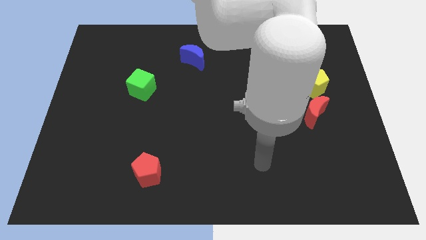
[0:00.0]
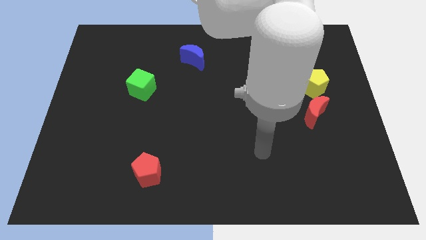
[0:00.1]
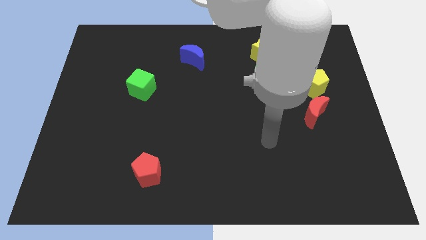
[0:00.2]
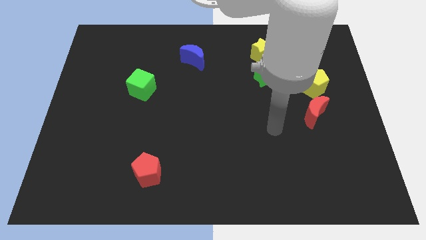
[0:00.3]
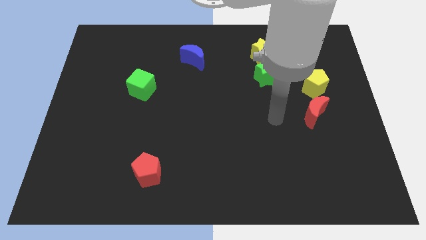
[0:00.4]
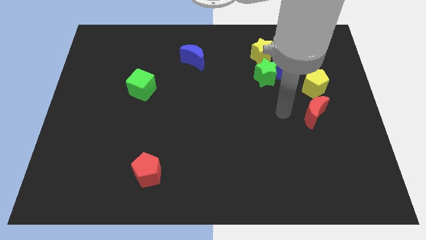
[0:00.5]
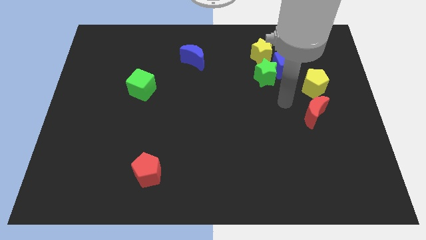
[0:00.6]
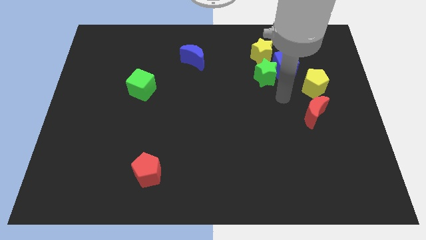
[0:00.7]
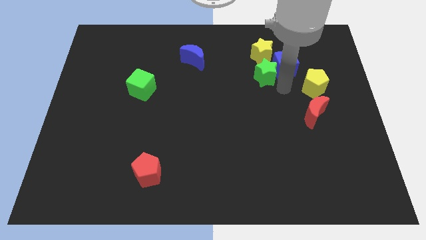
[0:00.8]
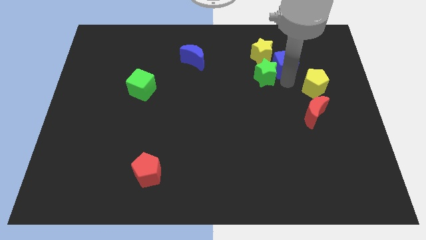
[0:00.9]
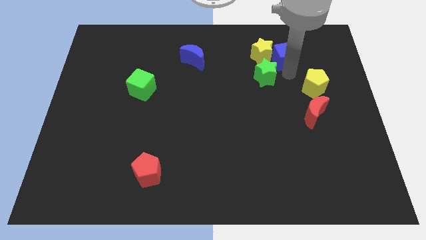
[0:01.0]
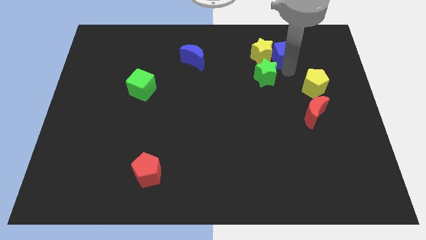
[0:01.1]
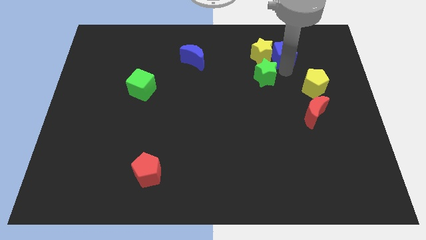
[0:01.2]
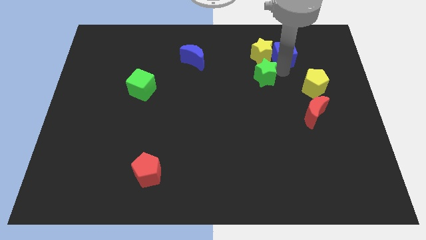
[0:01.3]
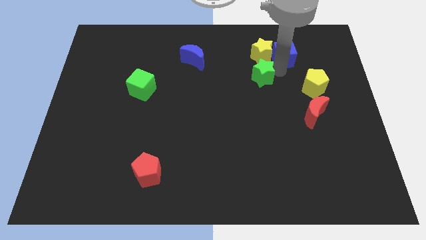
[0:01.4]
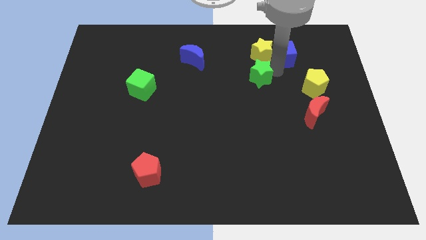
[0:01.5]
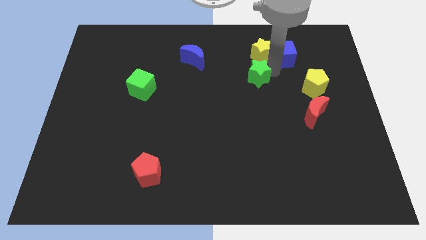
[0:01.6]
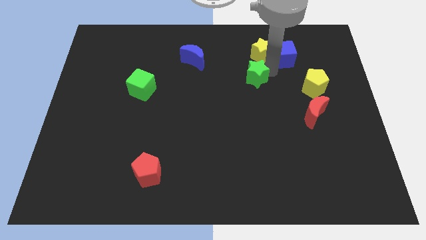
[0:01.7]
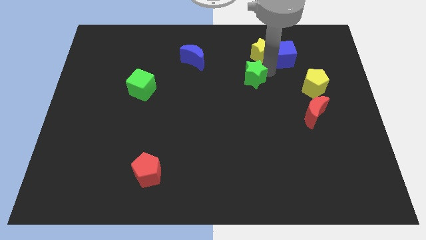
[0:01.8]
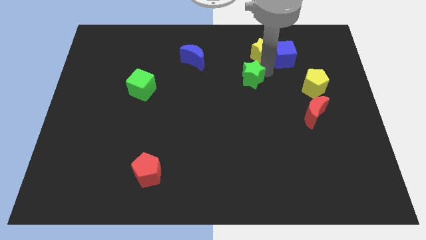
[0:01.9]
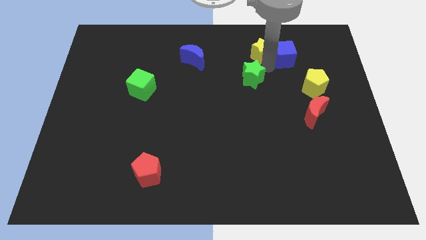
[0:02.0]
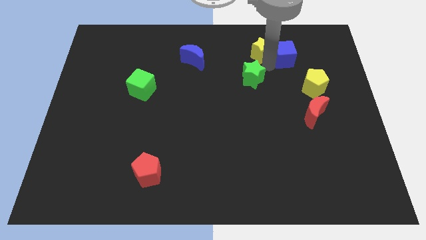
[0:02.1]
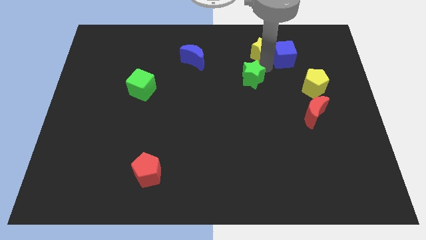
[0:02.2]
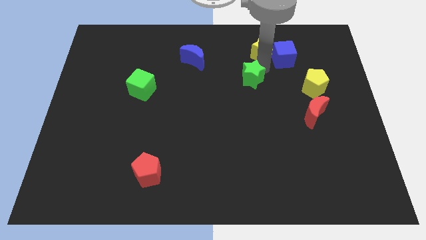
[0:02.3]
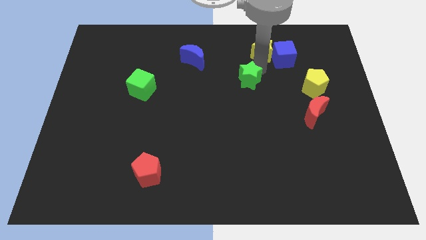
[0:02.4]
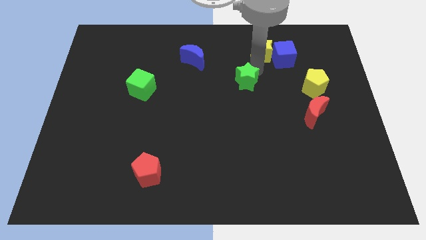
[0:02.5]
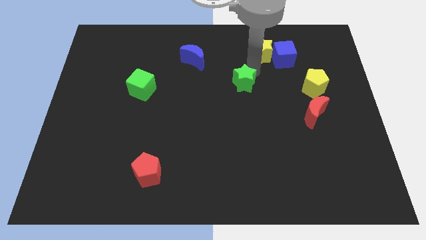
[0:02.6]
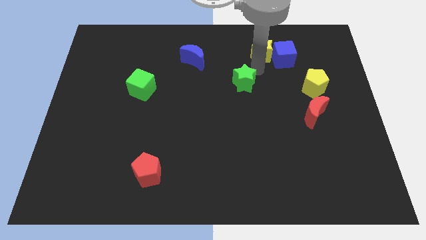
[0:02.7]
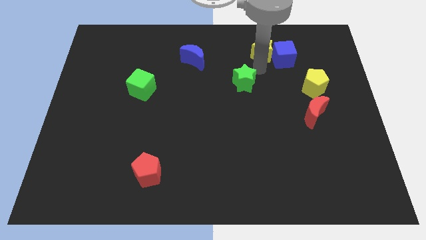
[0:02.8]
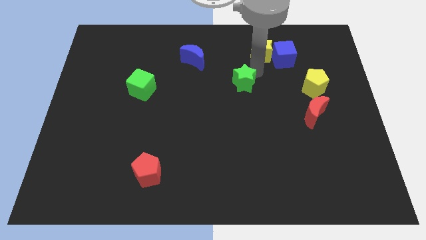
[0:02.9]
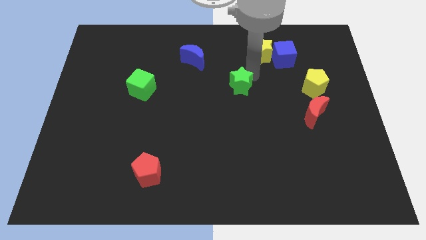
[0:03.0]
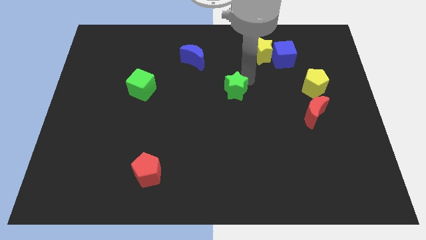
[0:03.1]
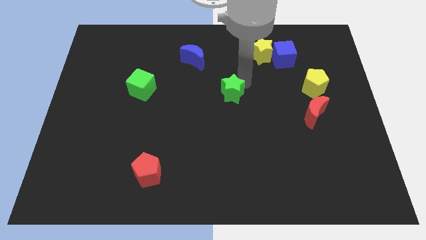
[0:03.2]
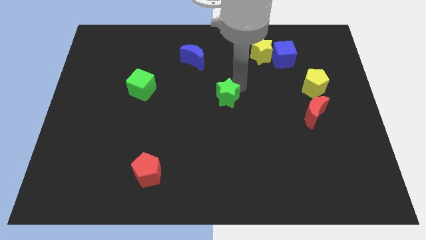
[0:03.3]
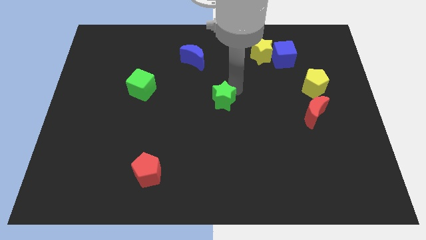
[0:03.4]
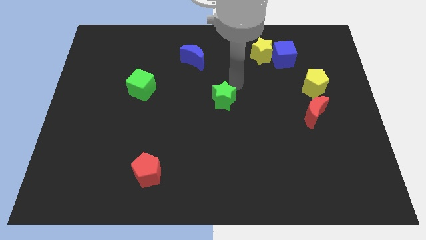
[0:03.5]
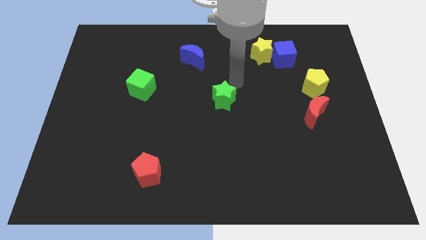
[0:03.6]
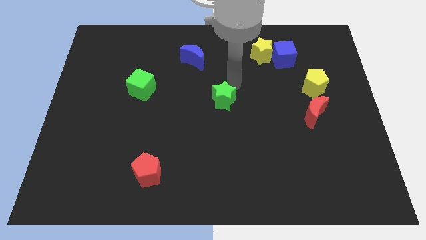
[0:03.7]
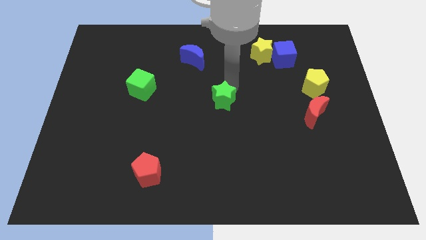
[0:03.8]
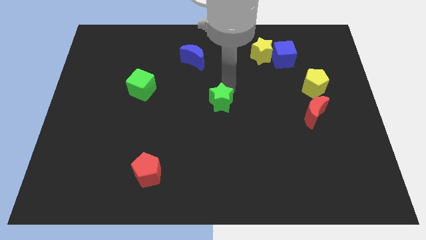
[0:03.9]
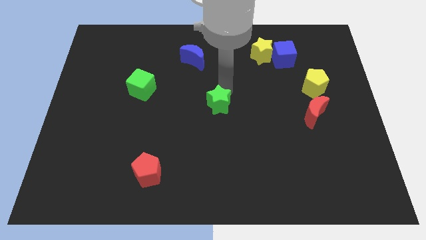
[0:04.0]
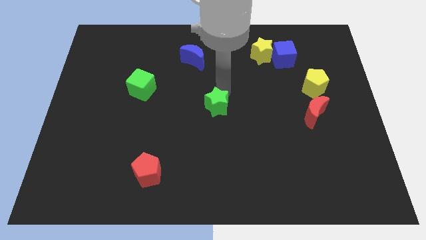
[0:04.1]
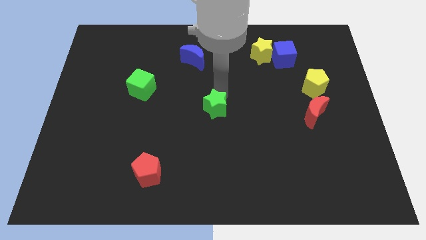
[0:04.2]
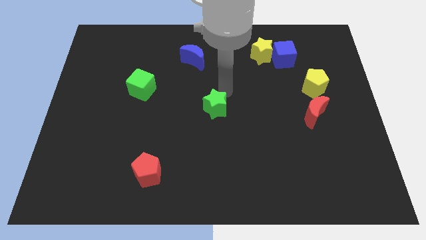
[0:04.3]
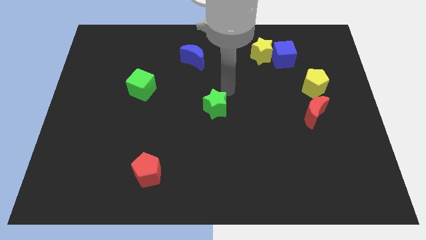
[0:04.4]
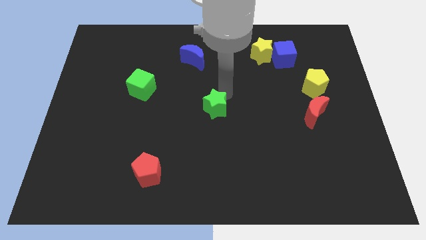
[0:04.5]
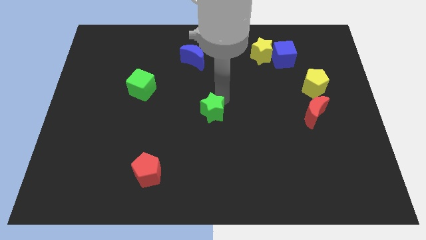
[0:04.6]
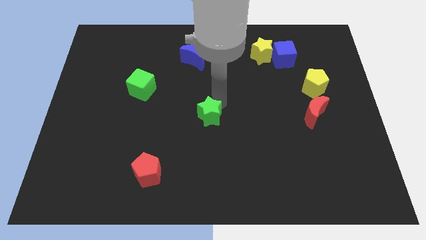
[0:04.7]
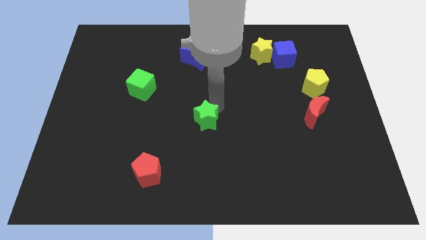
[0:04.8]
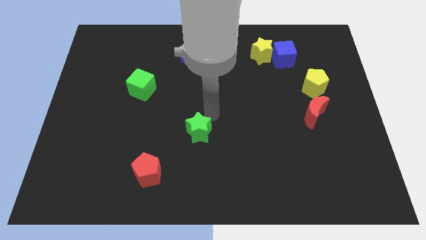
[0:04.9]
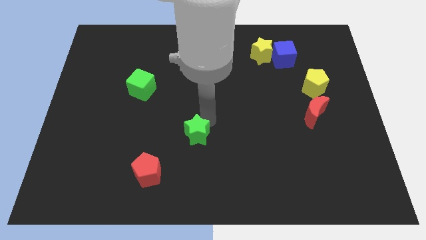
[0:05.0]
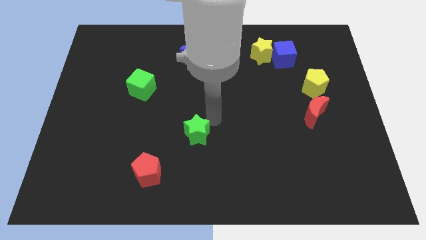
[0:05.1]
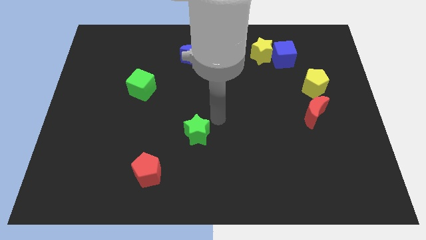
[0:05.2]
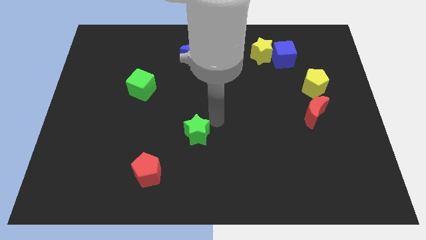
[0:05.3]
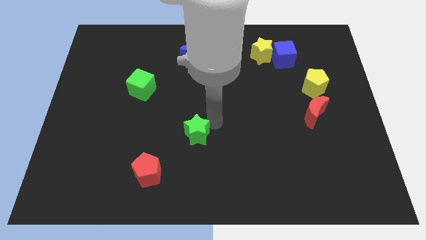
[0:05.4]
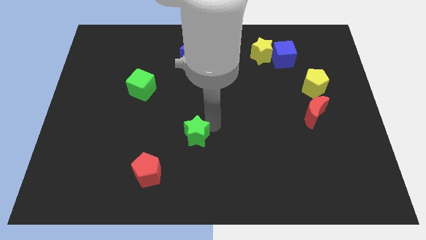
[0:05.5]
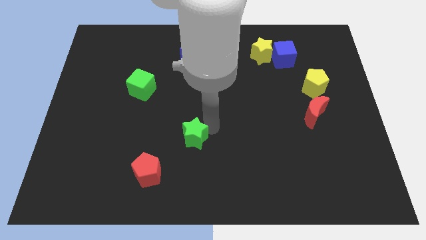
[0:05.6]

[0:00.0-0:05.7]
move the green star to the top right side of the red pentagon

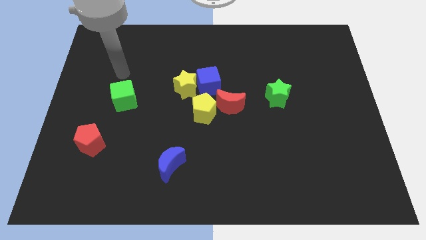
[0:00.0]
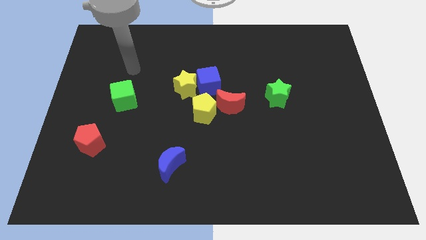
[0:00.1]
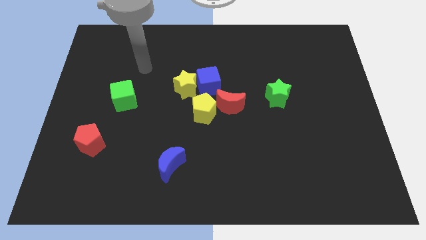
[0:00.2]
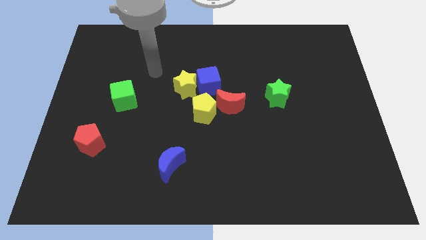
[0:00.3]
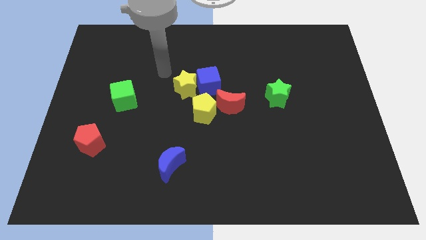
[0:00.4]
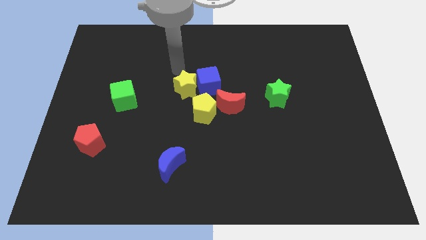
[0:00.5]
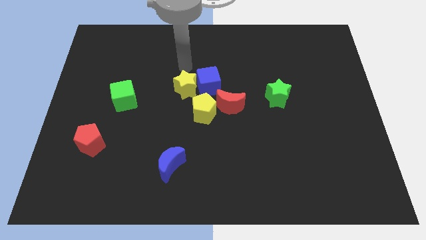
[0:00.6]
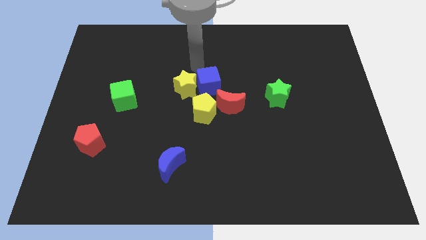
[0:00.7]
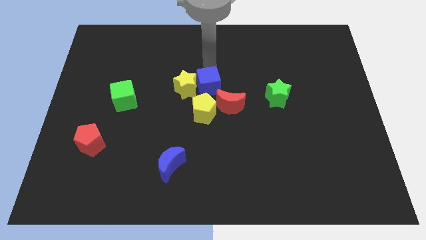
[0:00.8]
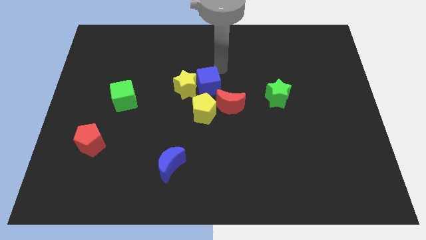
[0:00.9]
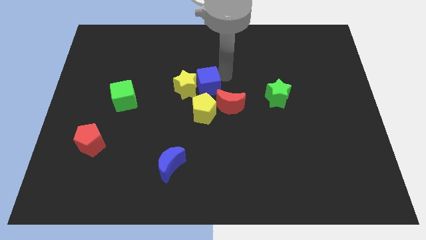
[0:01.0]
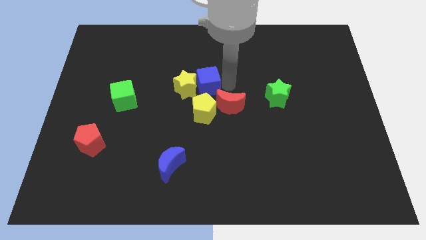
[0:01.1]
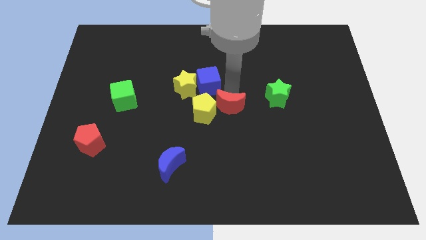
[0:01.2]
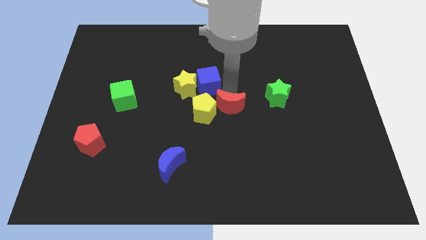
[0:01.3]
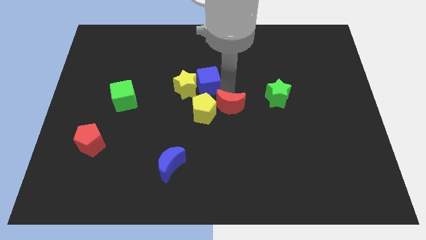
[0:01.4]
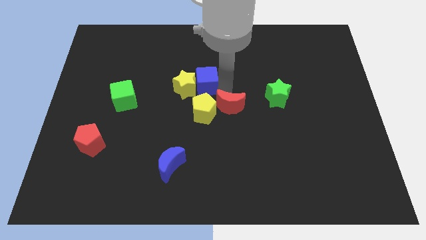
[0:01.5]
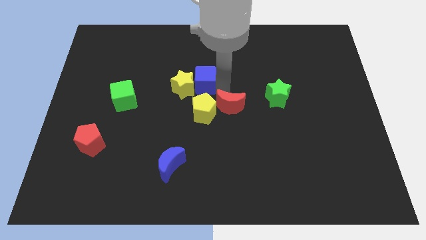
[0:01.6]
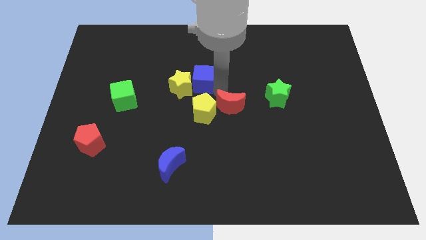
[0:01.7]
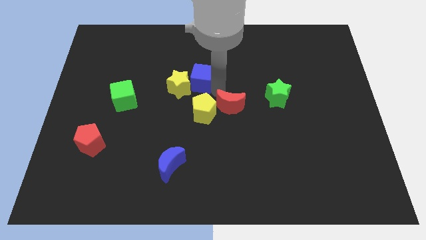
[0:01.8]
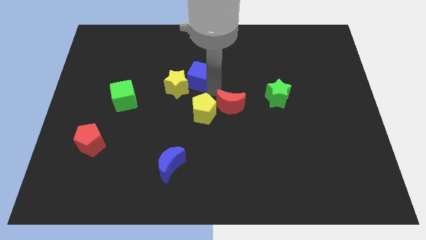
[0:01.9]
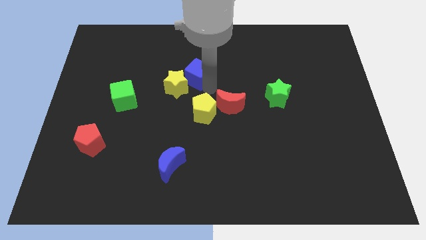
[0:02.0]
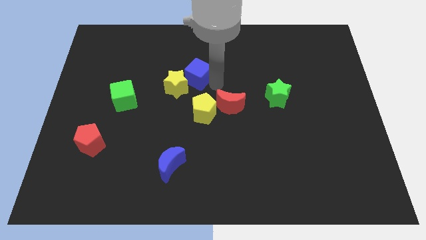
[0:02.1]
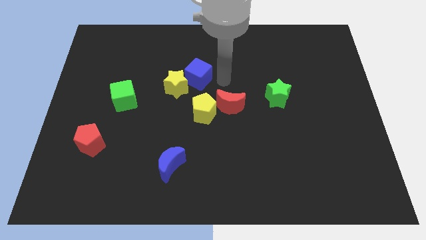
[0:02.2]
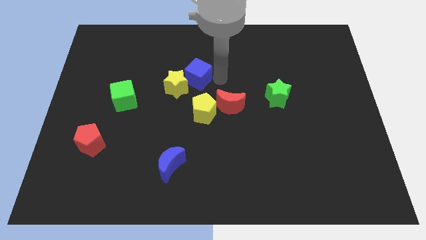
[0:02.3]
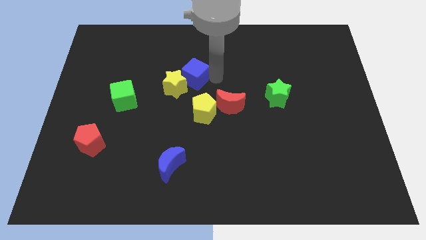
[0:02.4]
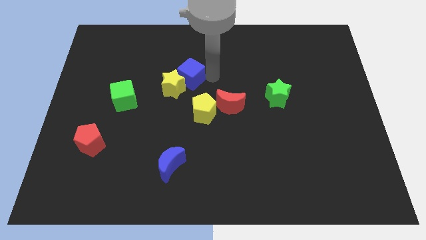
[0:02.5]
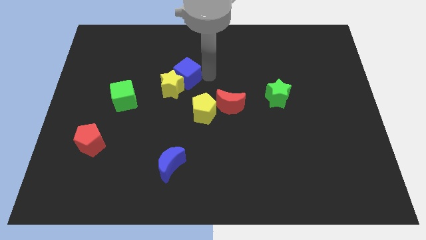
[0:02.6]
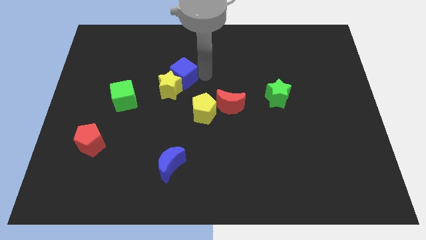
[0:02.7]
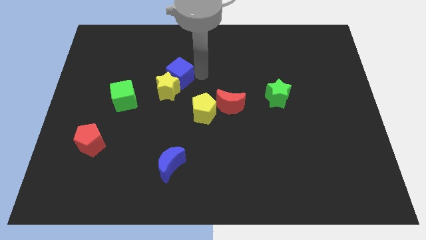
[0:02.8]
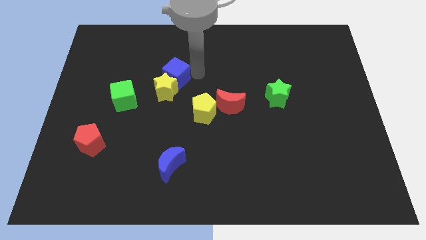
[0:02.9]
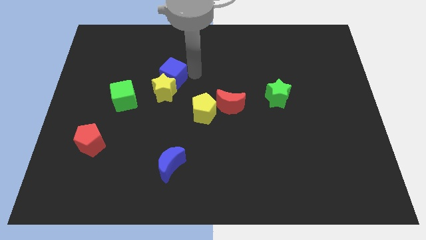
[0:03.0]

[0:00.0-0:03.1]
move the blue cube to the top left of the yellow star
